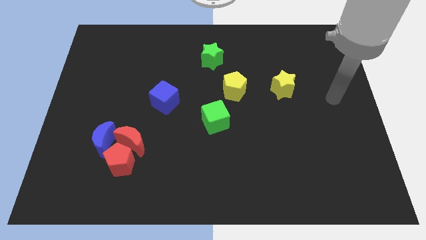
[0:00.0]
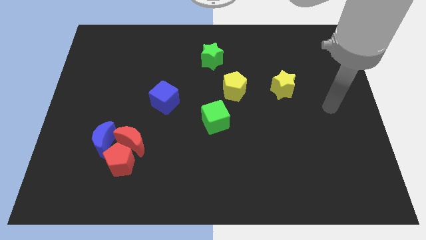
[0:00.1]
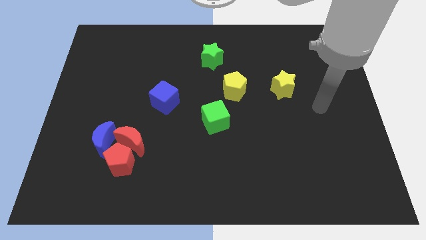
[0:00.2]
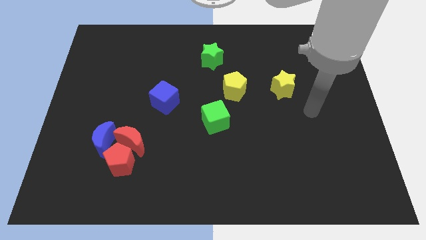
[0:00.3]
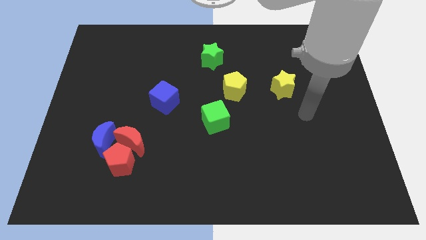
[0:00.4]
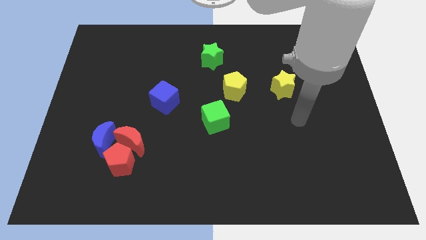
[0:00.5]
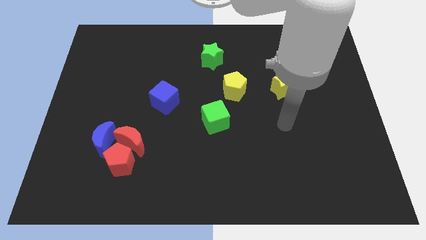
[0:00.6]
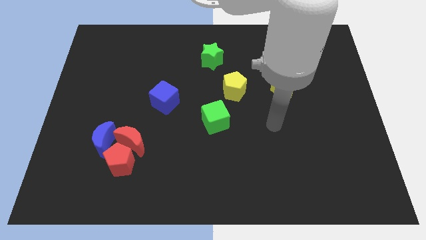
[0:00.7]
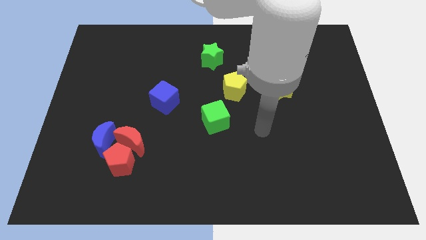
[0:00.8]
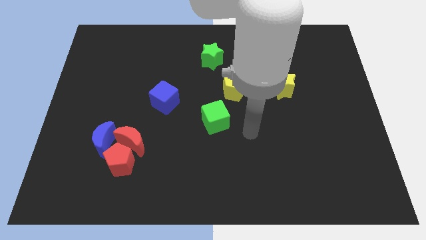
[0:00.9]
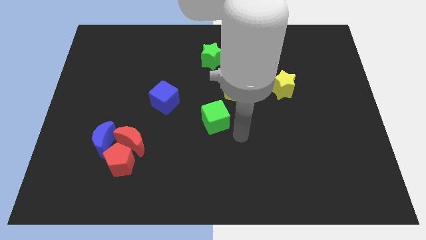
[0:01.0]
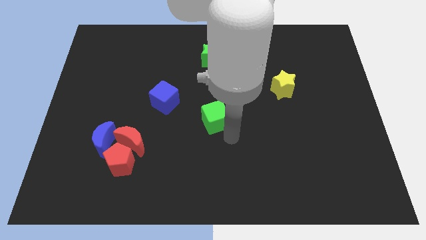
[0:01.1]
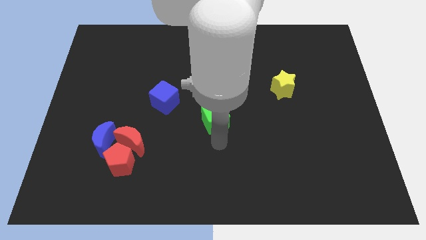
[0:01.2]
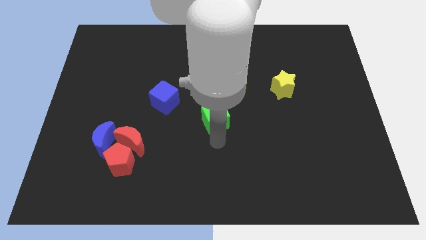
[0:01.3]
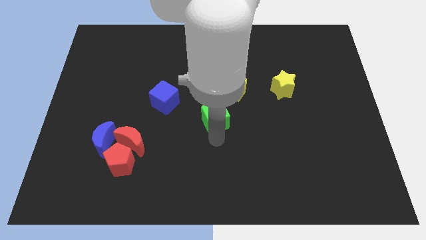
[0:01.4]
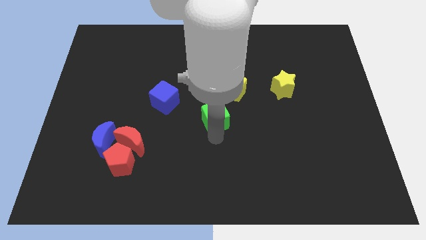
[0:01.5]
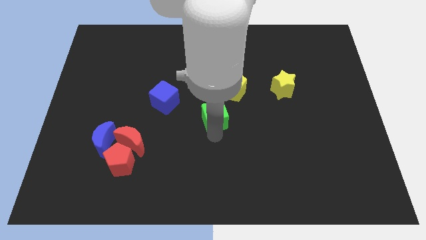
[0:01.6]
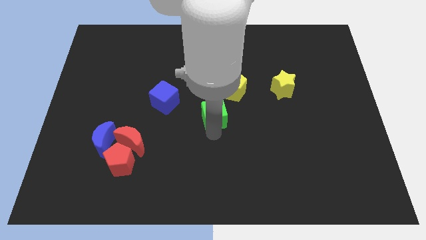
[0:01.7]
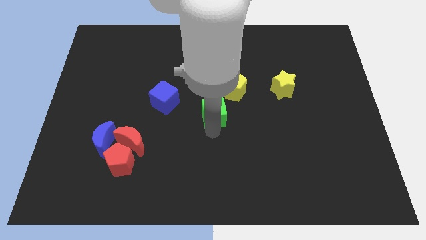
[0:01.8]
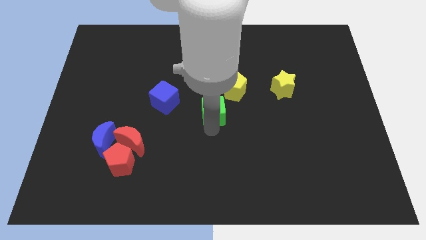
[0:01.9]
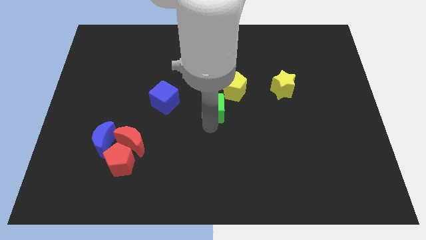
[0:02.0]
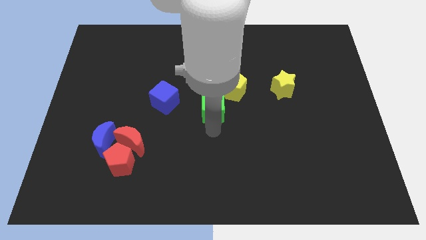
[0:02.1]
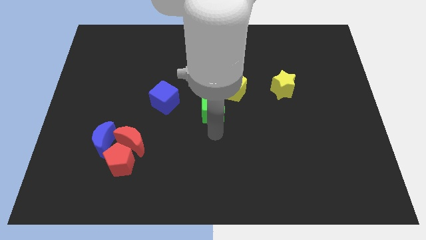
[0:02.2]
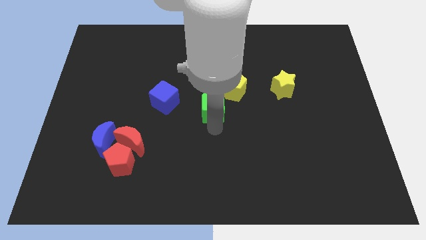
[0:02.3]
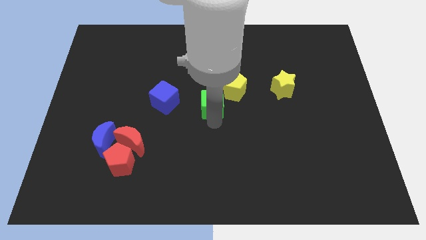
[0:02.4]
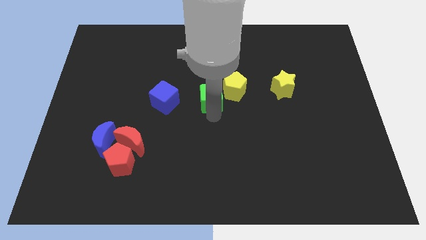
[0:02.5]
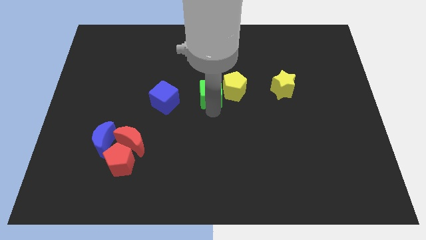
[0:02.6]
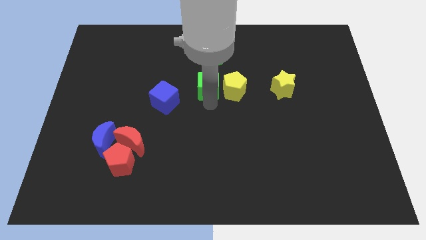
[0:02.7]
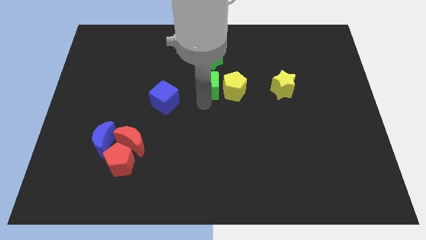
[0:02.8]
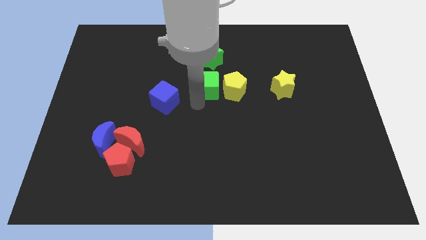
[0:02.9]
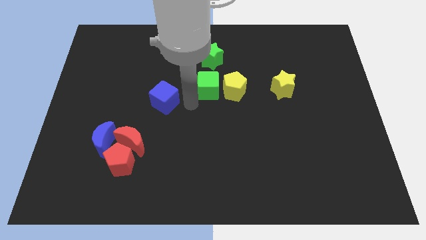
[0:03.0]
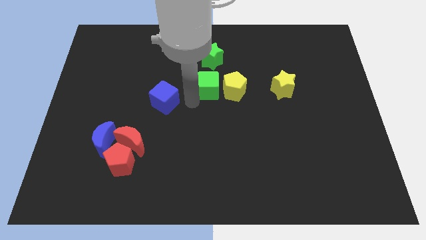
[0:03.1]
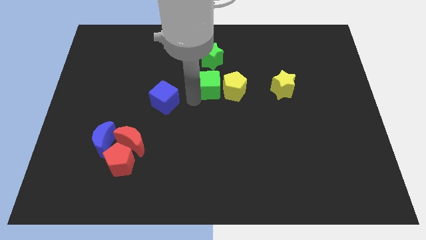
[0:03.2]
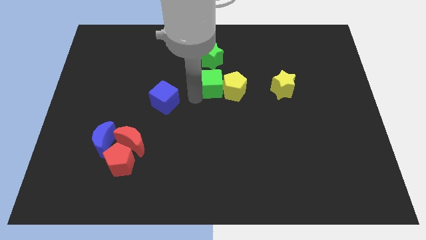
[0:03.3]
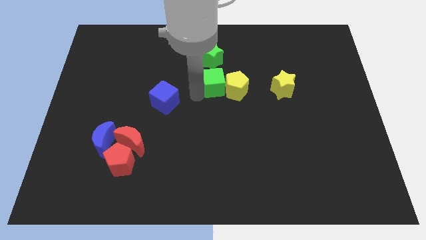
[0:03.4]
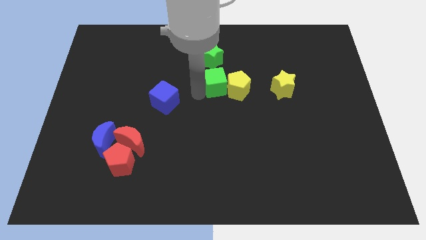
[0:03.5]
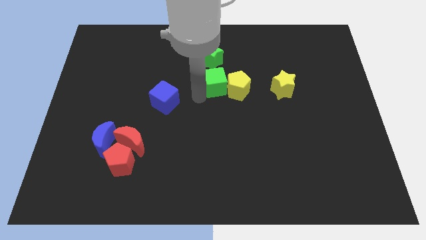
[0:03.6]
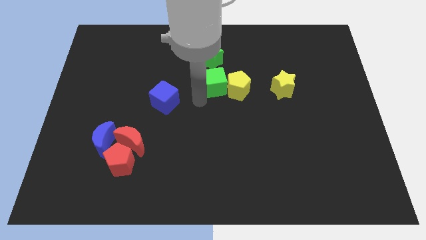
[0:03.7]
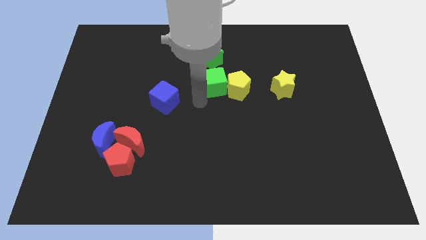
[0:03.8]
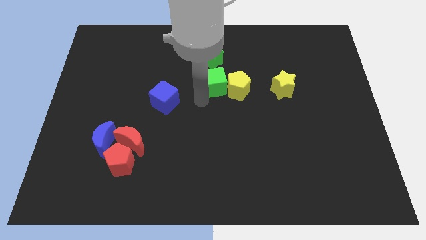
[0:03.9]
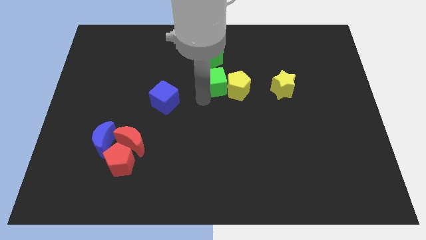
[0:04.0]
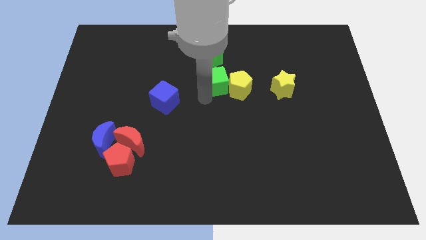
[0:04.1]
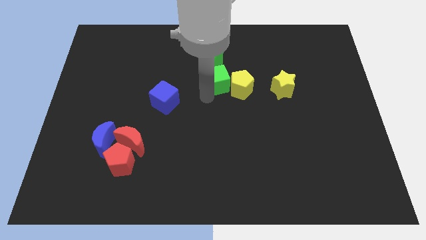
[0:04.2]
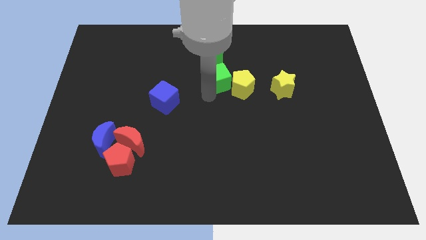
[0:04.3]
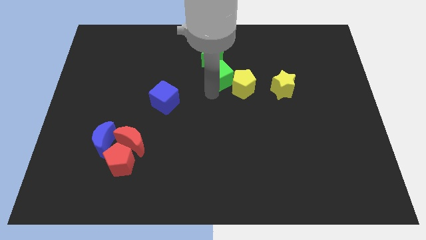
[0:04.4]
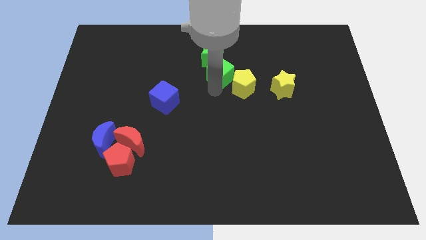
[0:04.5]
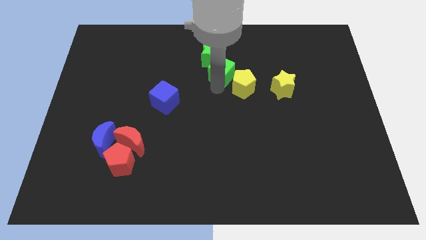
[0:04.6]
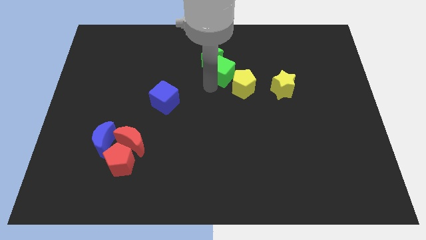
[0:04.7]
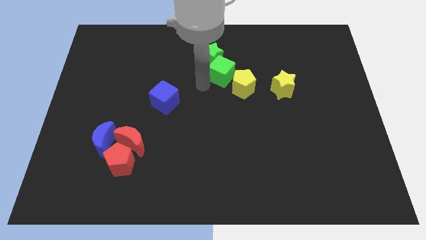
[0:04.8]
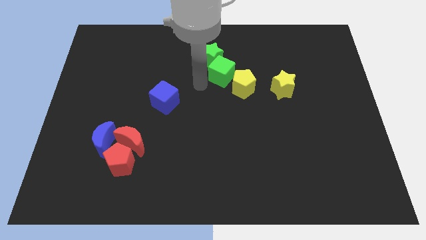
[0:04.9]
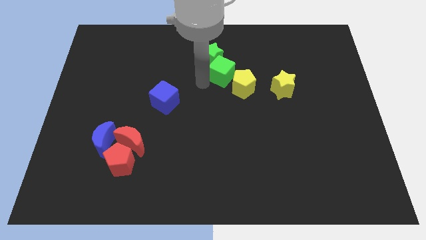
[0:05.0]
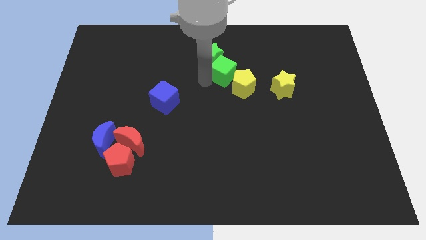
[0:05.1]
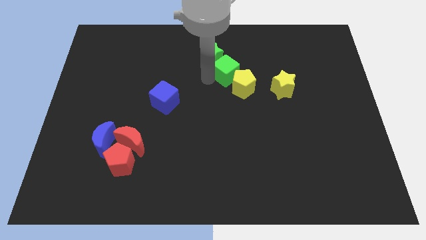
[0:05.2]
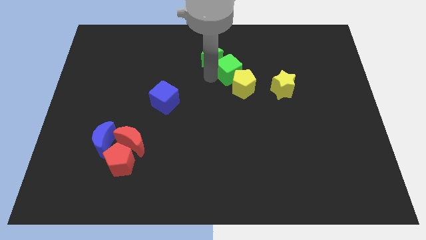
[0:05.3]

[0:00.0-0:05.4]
slide the green cube to the right of the green star

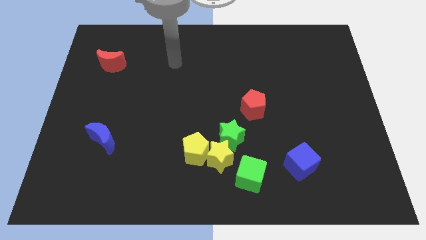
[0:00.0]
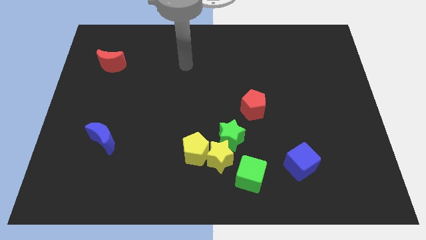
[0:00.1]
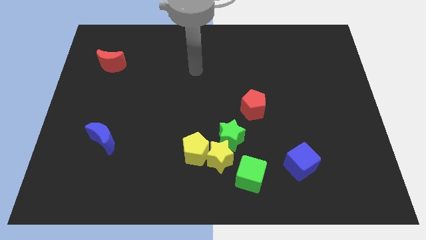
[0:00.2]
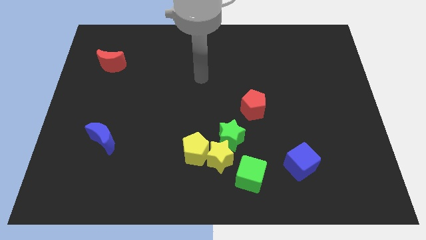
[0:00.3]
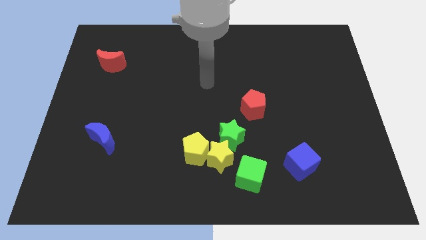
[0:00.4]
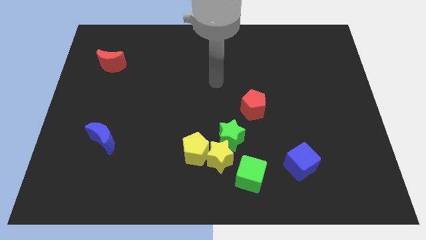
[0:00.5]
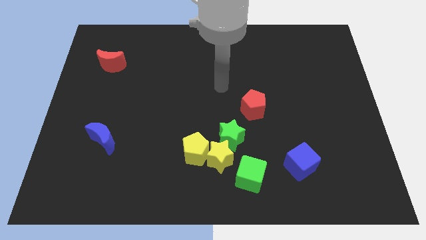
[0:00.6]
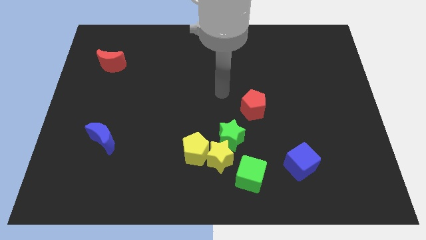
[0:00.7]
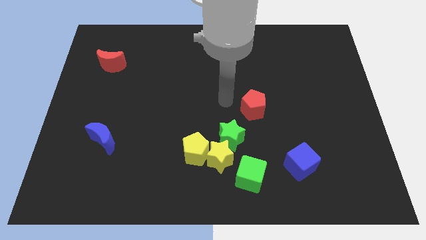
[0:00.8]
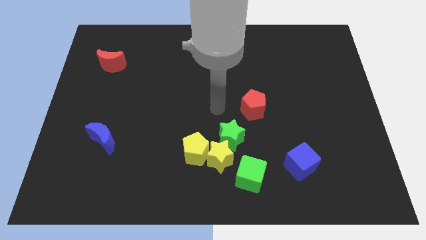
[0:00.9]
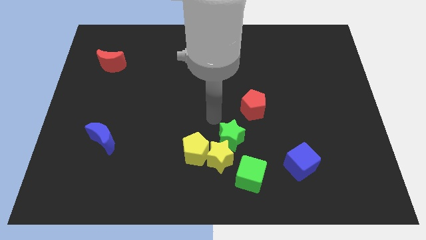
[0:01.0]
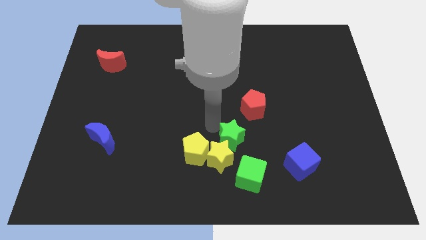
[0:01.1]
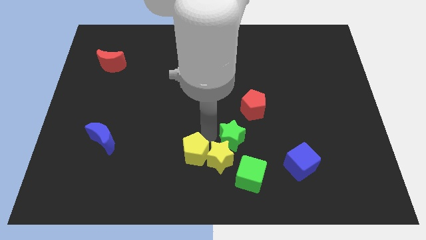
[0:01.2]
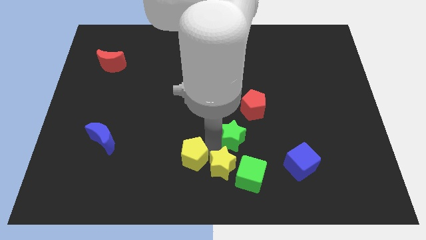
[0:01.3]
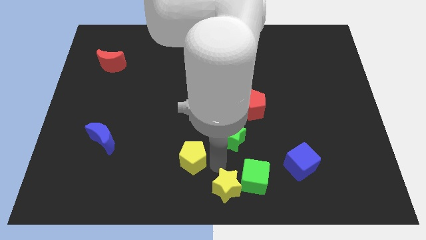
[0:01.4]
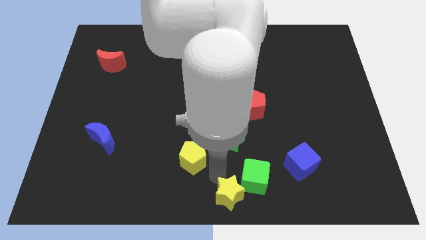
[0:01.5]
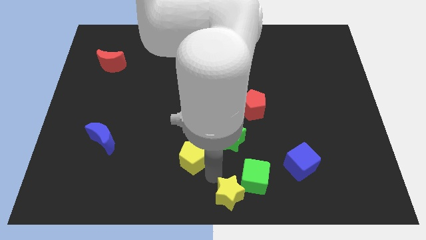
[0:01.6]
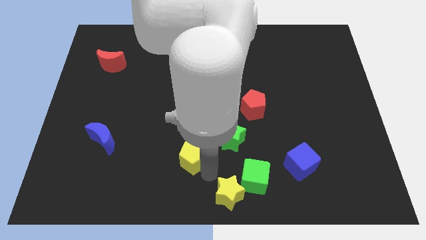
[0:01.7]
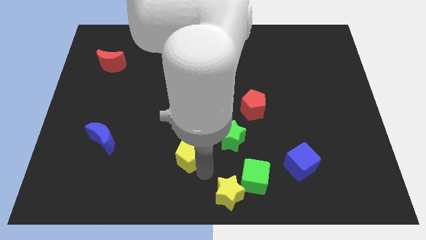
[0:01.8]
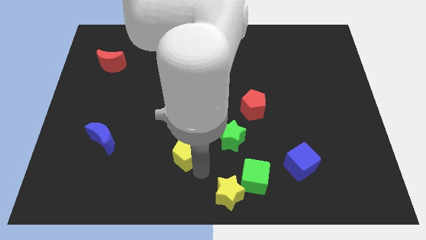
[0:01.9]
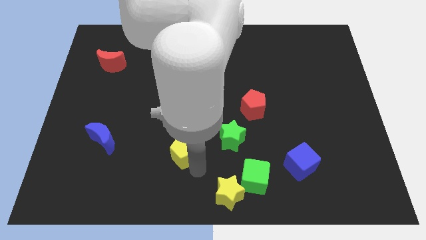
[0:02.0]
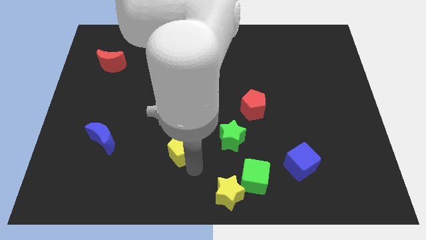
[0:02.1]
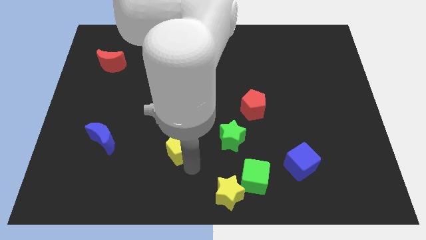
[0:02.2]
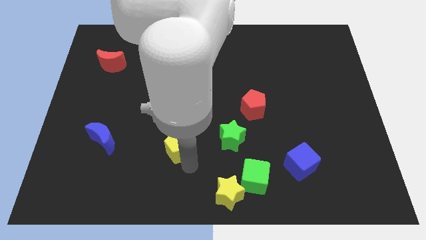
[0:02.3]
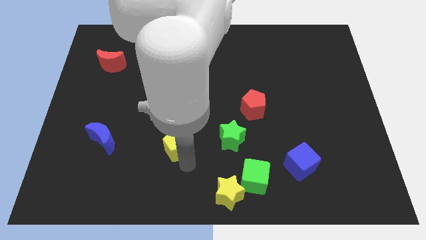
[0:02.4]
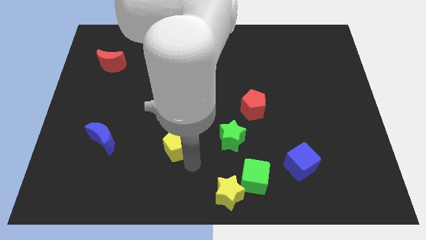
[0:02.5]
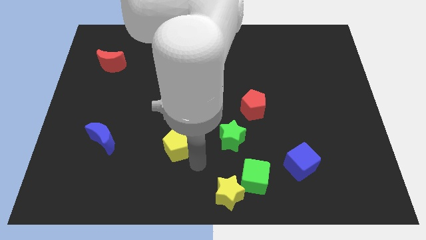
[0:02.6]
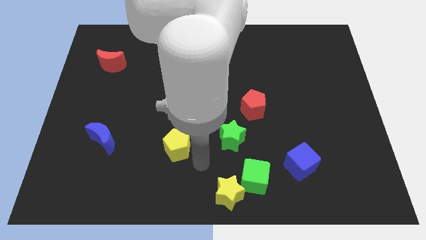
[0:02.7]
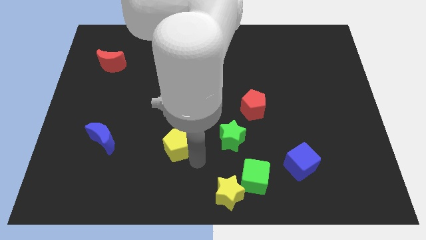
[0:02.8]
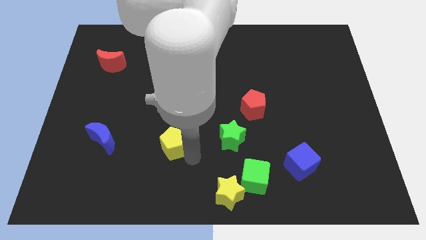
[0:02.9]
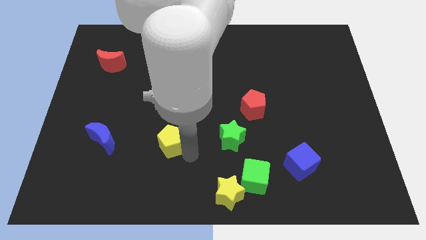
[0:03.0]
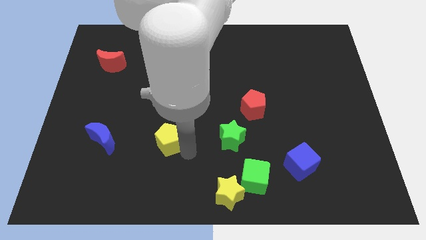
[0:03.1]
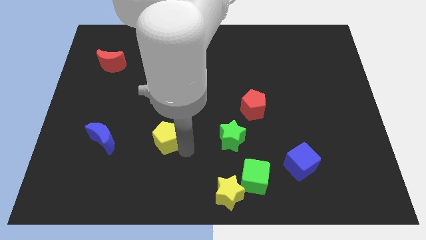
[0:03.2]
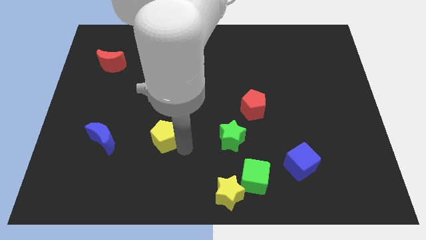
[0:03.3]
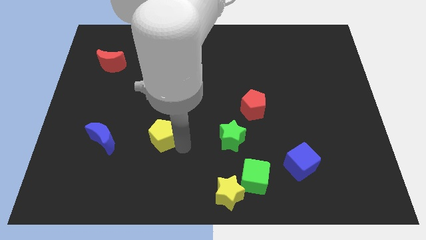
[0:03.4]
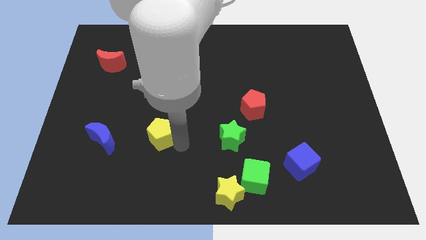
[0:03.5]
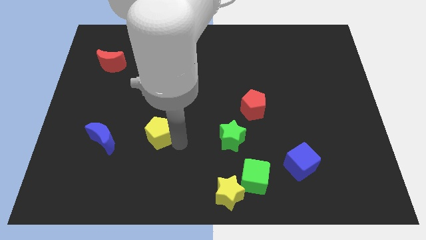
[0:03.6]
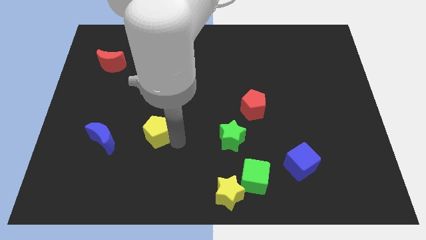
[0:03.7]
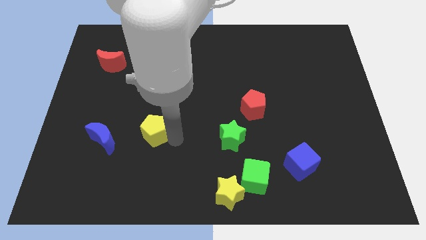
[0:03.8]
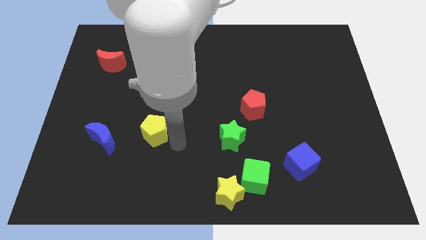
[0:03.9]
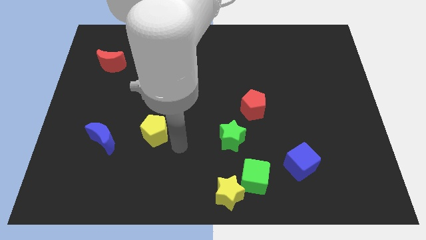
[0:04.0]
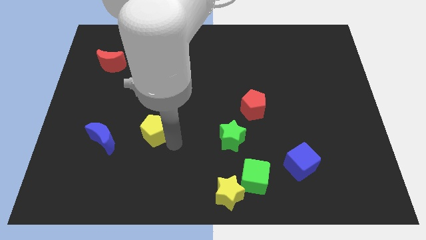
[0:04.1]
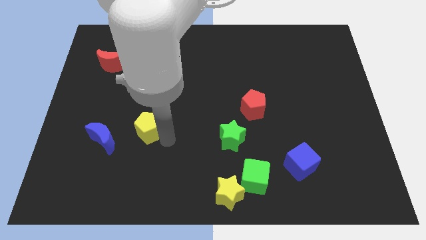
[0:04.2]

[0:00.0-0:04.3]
put the yellow pentagon to the top right of the blue moon
